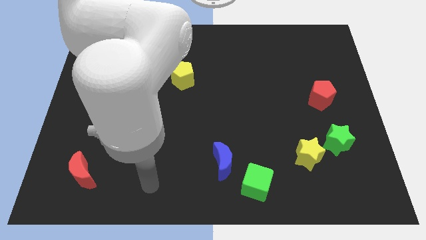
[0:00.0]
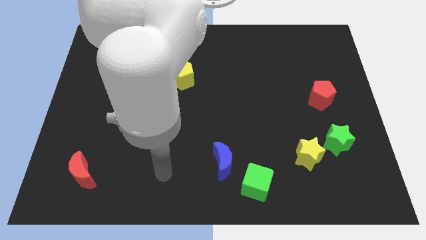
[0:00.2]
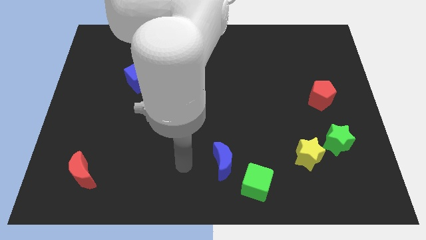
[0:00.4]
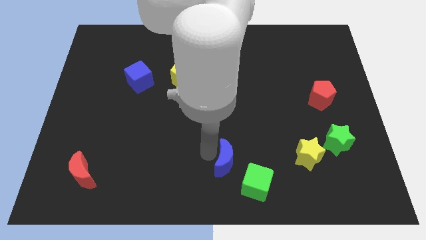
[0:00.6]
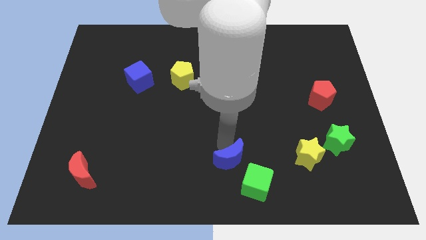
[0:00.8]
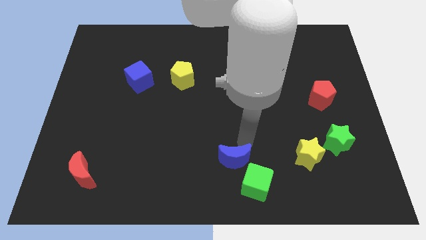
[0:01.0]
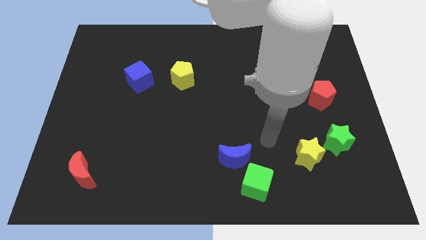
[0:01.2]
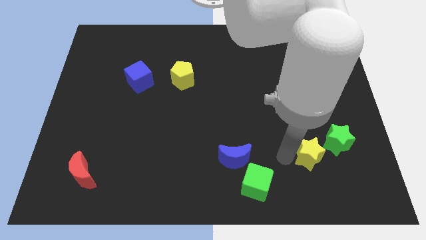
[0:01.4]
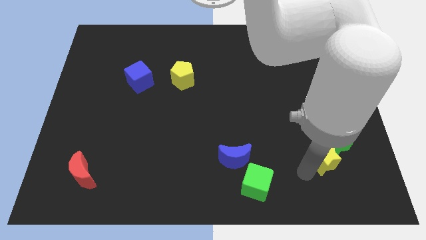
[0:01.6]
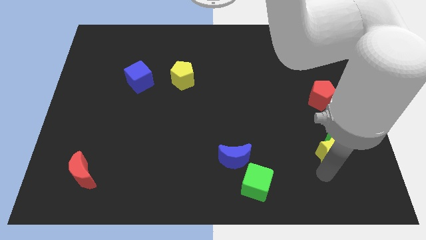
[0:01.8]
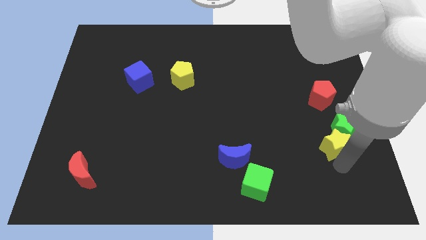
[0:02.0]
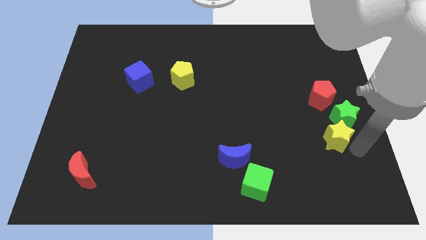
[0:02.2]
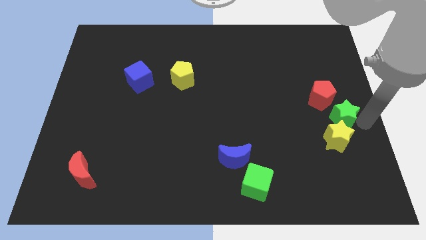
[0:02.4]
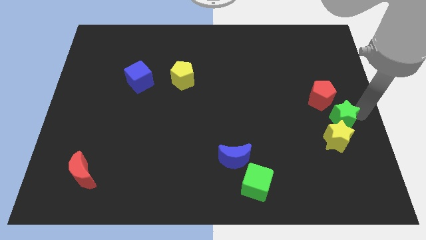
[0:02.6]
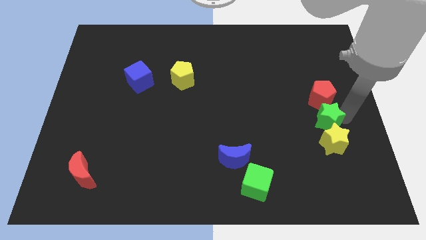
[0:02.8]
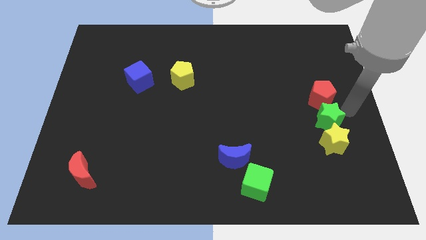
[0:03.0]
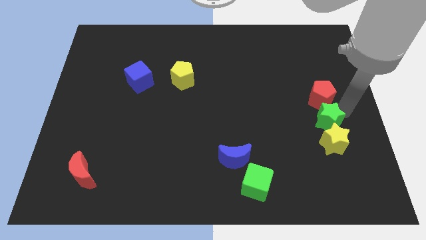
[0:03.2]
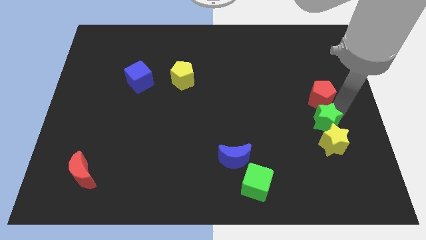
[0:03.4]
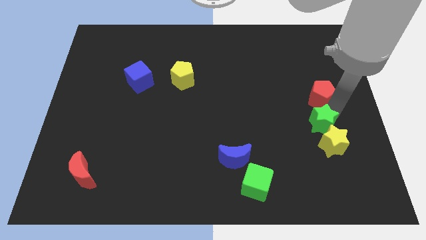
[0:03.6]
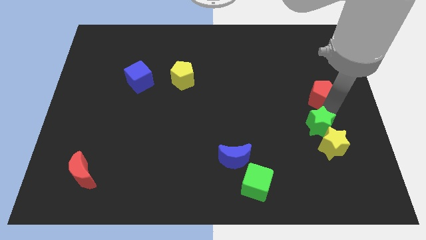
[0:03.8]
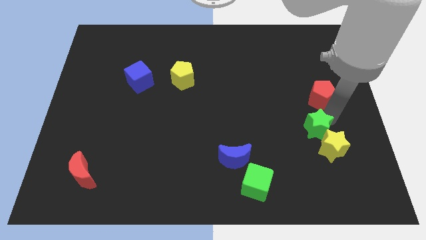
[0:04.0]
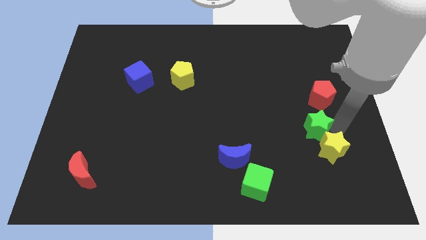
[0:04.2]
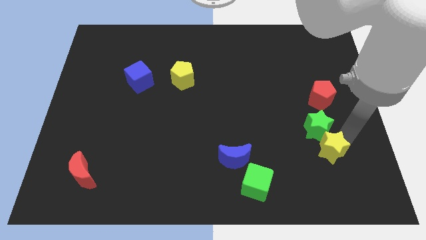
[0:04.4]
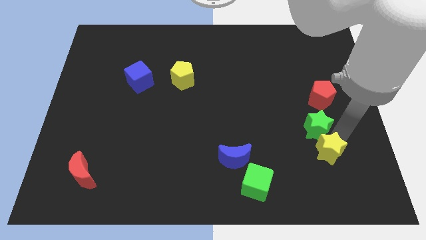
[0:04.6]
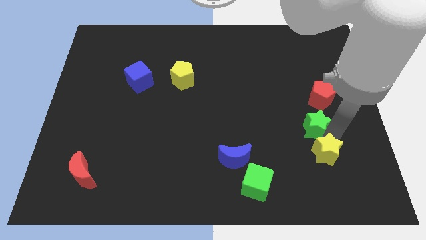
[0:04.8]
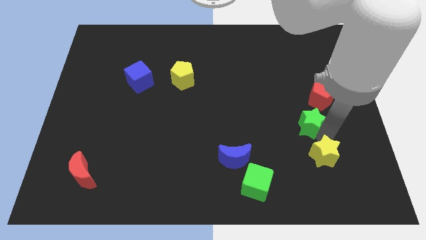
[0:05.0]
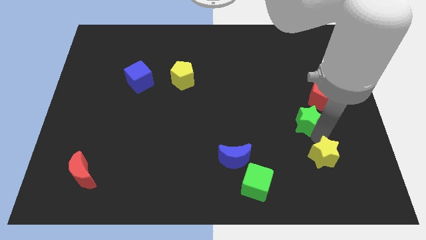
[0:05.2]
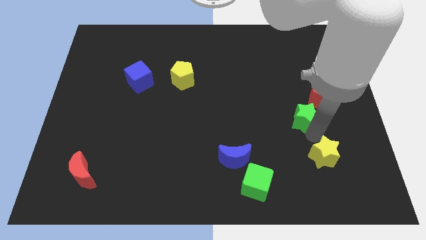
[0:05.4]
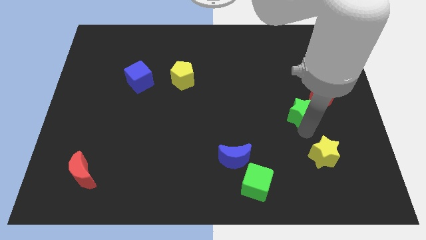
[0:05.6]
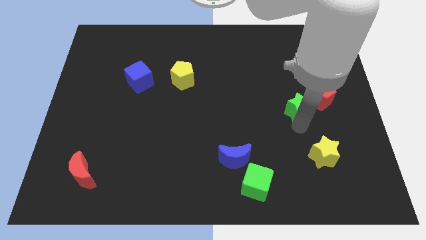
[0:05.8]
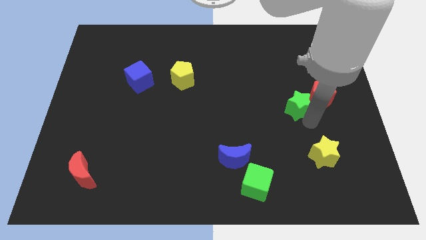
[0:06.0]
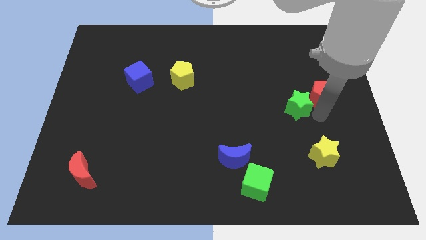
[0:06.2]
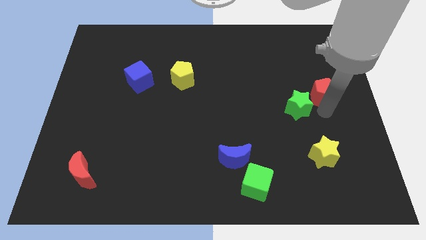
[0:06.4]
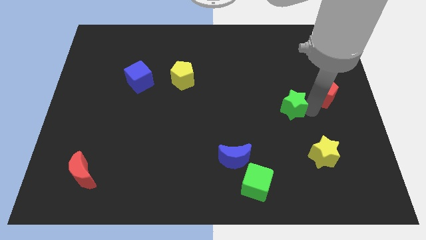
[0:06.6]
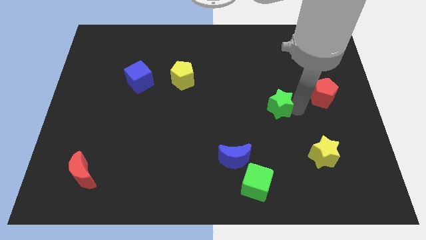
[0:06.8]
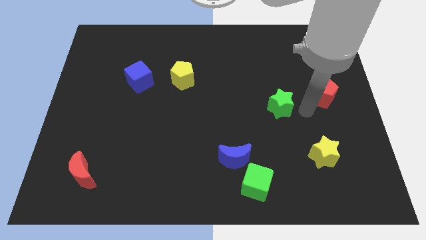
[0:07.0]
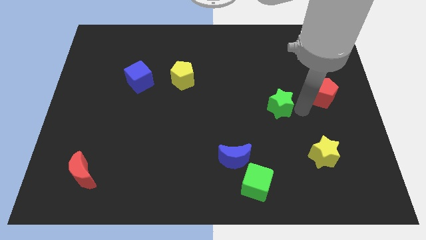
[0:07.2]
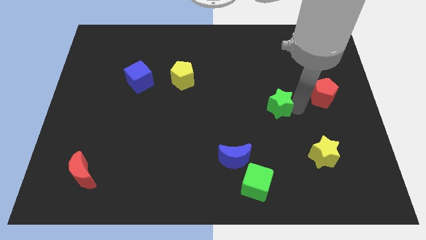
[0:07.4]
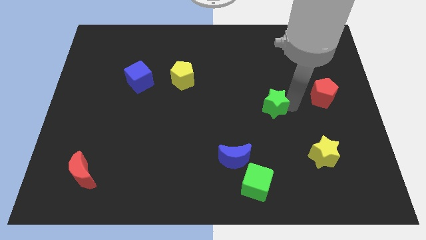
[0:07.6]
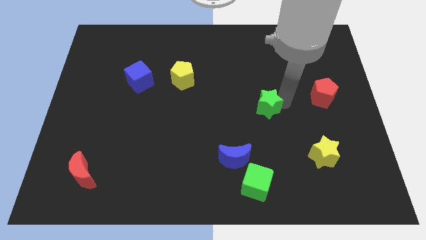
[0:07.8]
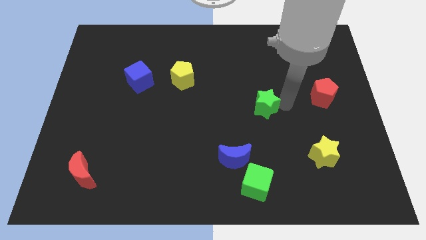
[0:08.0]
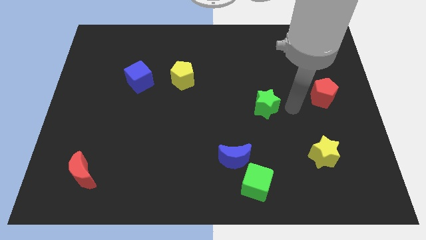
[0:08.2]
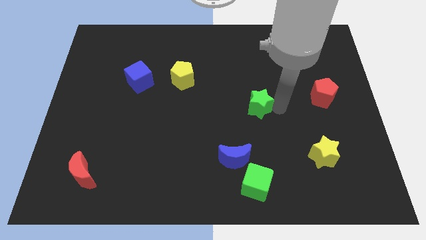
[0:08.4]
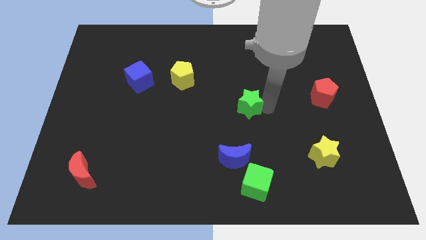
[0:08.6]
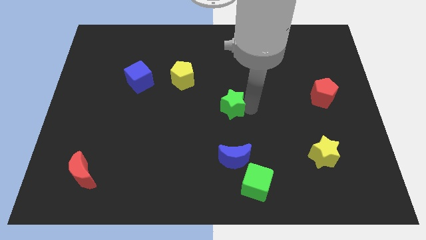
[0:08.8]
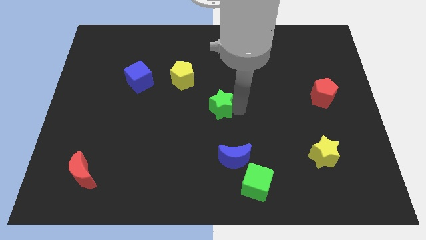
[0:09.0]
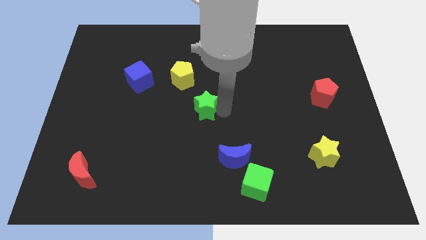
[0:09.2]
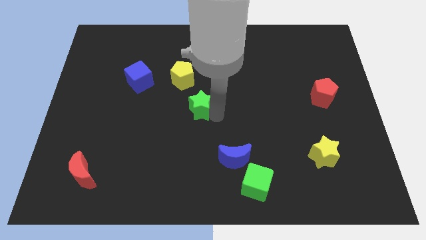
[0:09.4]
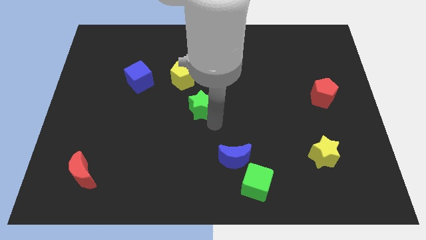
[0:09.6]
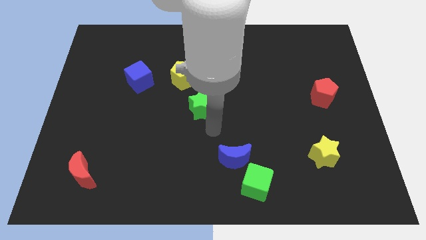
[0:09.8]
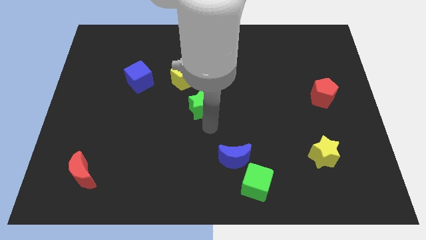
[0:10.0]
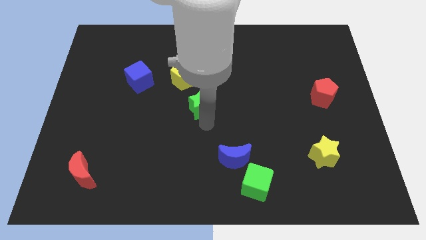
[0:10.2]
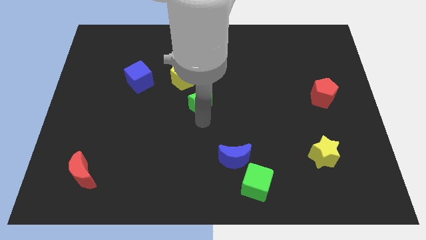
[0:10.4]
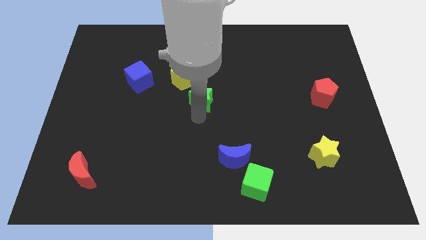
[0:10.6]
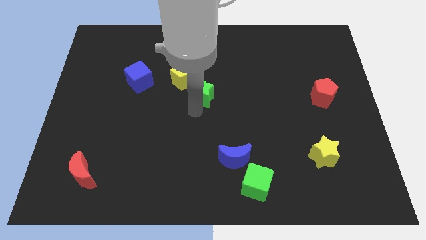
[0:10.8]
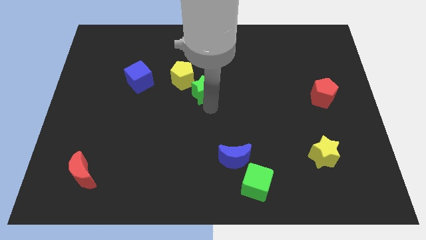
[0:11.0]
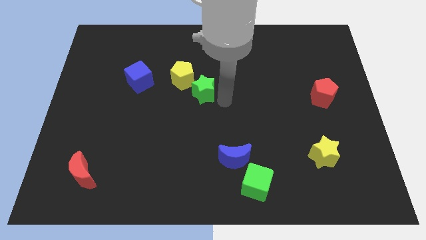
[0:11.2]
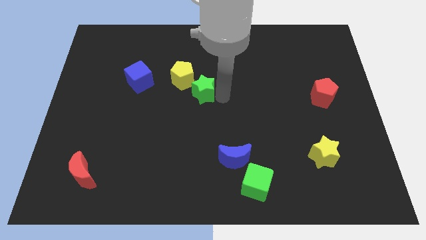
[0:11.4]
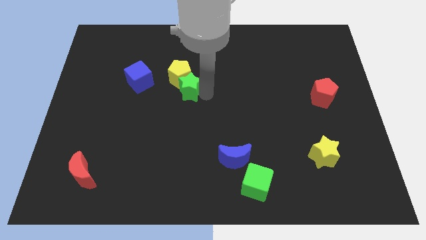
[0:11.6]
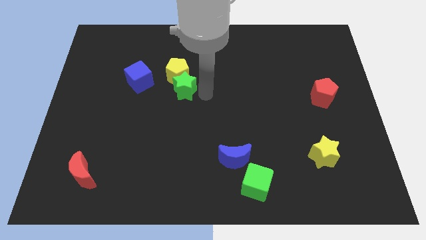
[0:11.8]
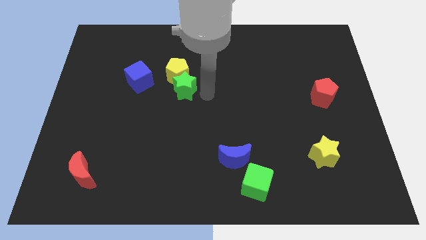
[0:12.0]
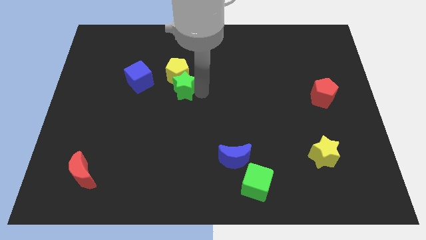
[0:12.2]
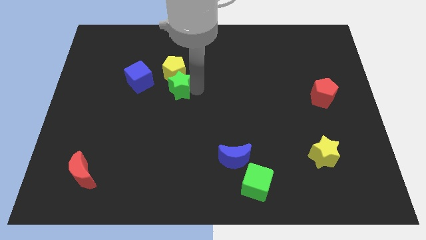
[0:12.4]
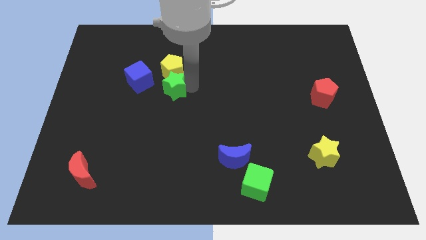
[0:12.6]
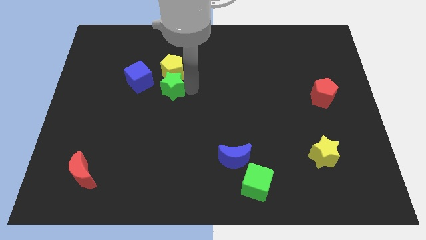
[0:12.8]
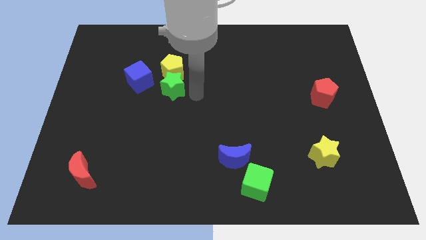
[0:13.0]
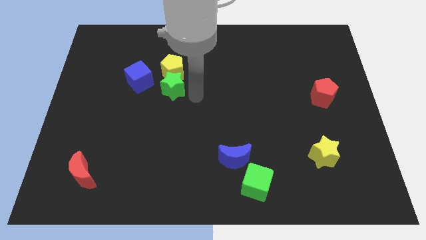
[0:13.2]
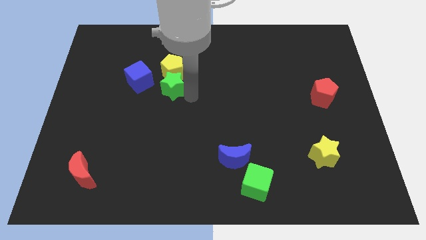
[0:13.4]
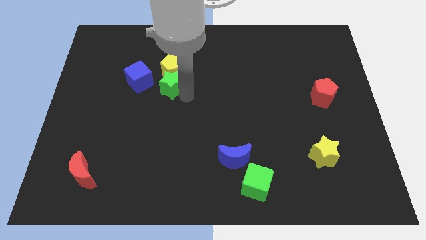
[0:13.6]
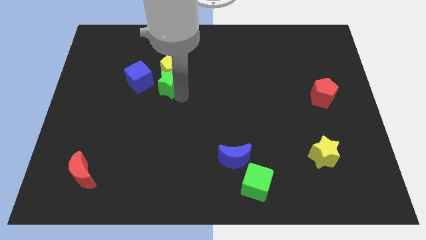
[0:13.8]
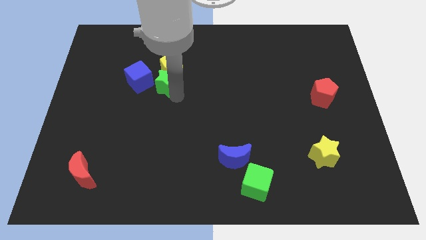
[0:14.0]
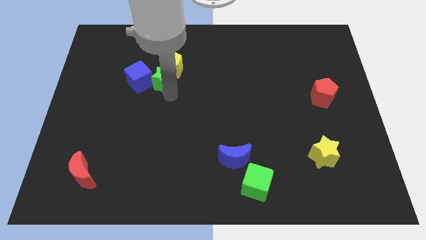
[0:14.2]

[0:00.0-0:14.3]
put the green star close to the blue cube
